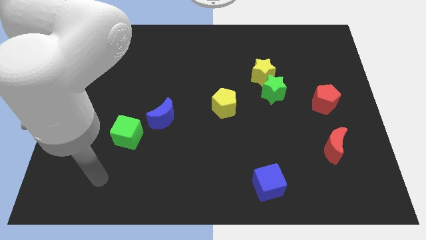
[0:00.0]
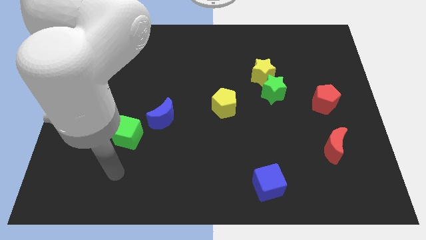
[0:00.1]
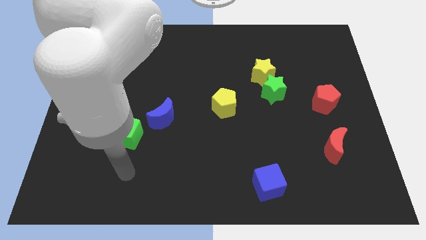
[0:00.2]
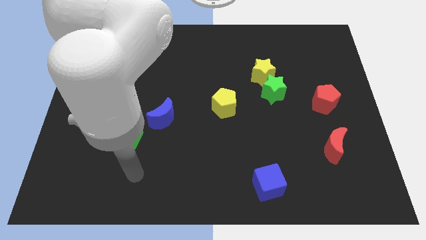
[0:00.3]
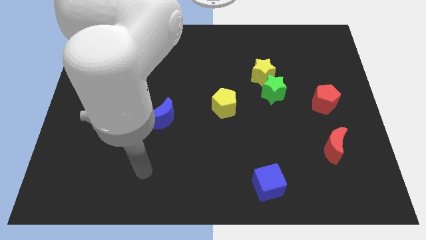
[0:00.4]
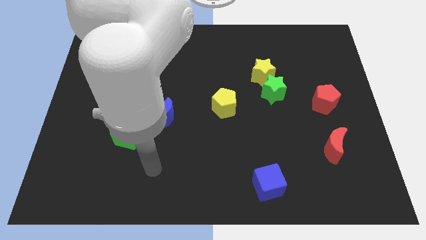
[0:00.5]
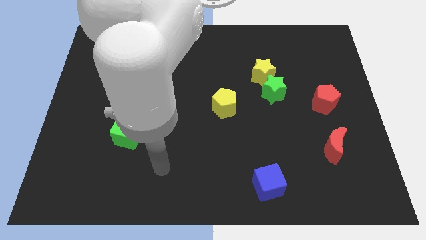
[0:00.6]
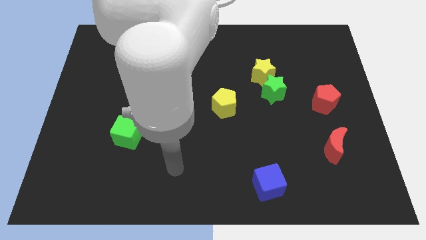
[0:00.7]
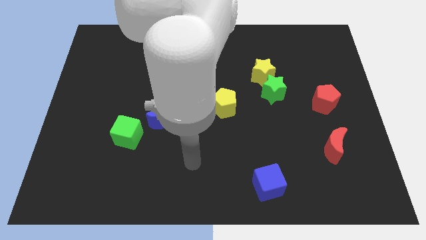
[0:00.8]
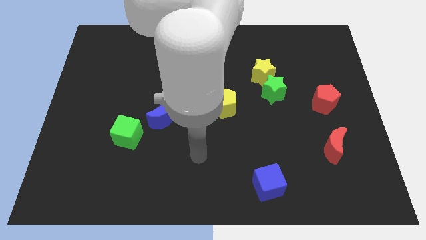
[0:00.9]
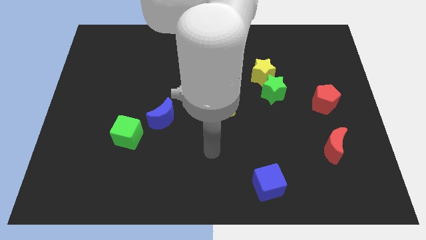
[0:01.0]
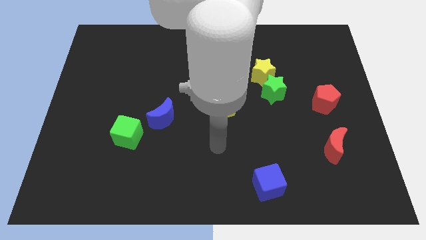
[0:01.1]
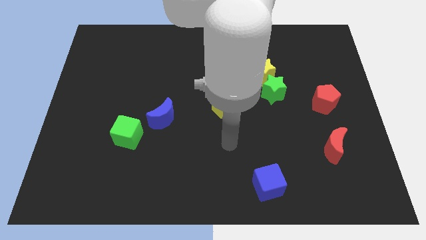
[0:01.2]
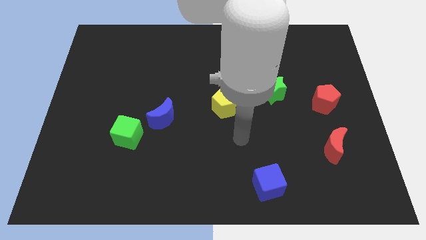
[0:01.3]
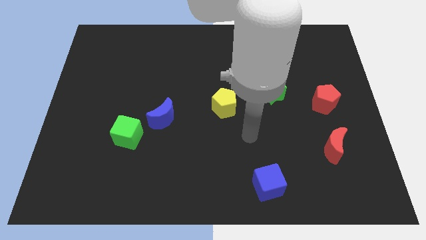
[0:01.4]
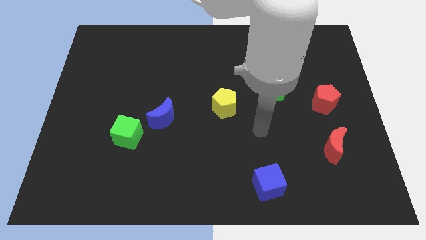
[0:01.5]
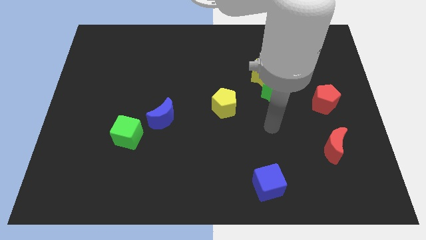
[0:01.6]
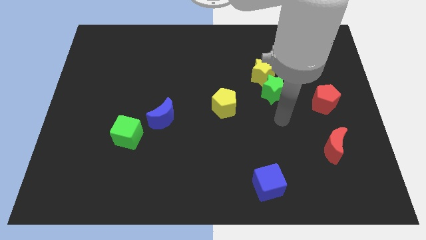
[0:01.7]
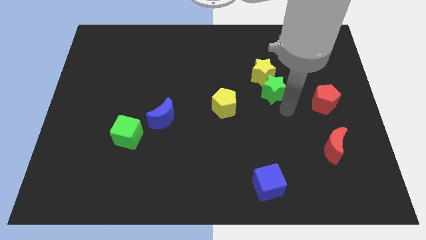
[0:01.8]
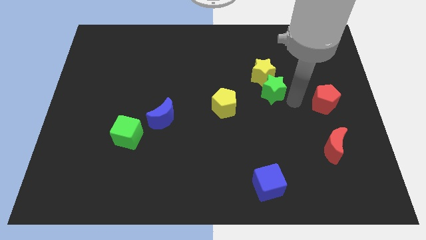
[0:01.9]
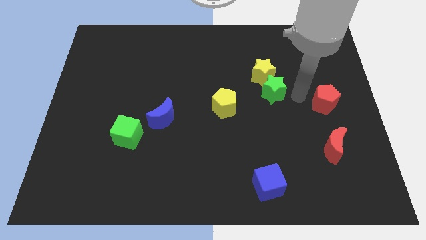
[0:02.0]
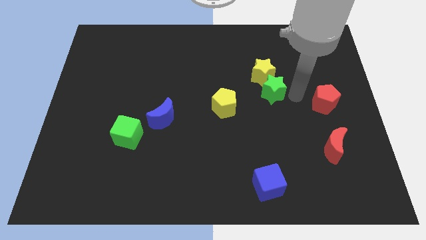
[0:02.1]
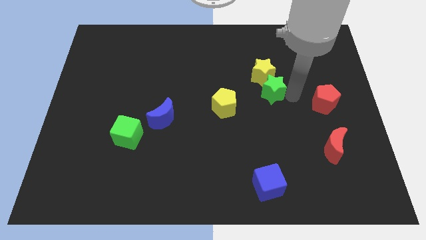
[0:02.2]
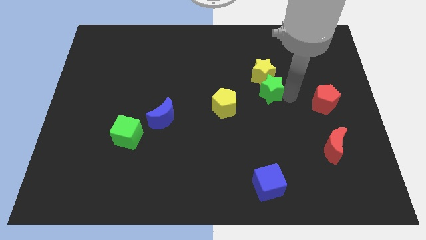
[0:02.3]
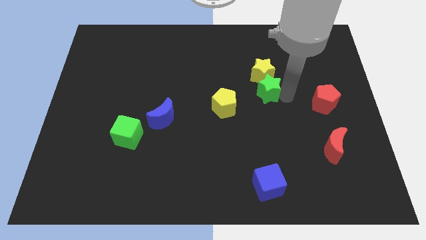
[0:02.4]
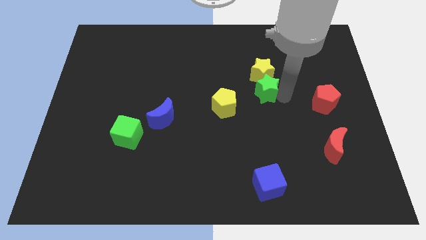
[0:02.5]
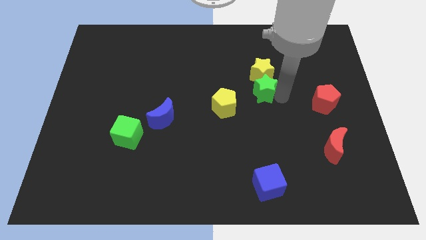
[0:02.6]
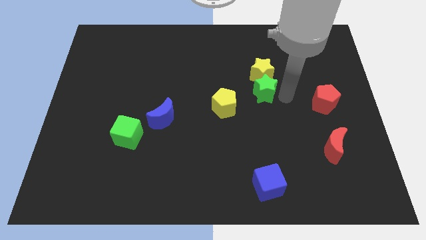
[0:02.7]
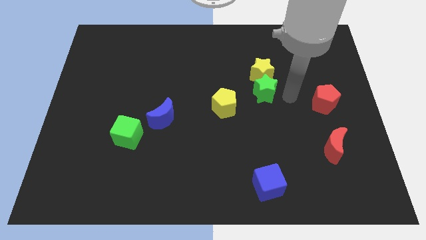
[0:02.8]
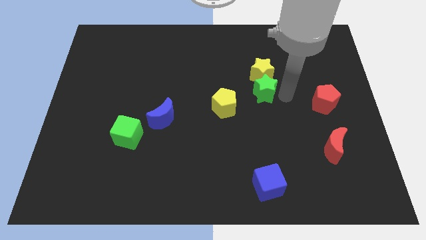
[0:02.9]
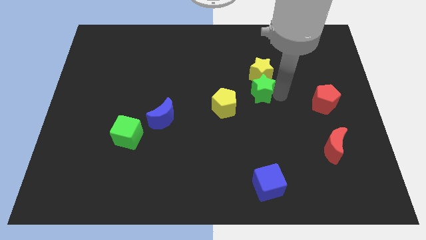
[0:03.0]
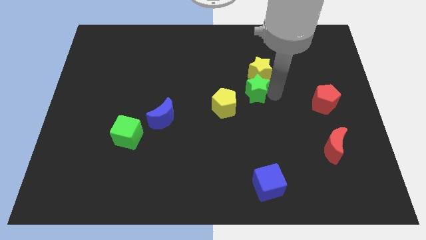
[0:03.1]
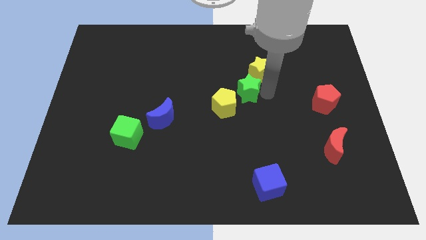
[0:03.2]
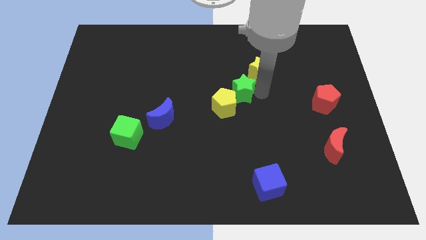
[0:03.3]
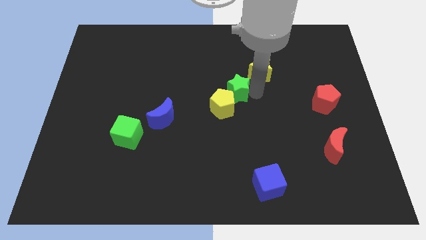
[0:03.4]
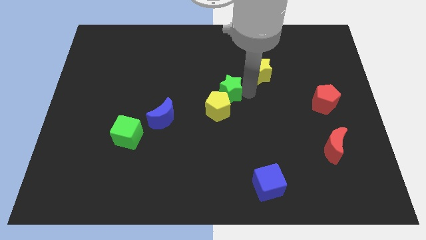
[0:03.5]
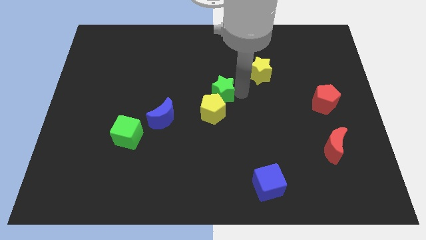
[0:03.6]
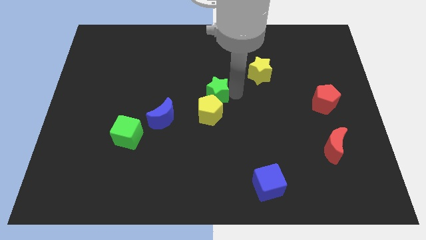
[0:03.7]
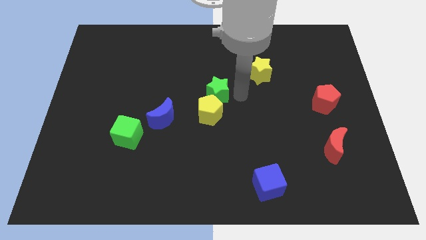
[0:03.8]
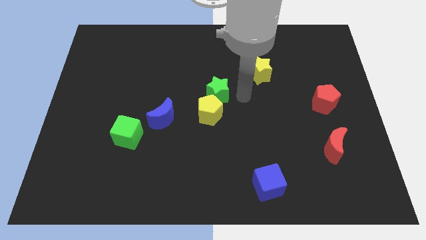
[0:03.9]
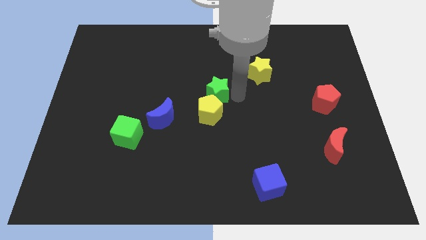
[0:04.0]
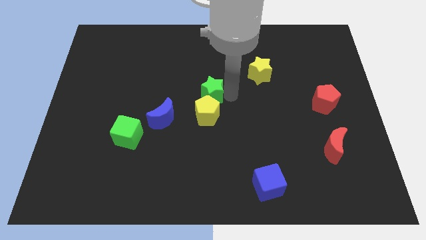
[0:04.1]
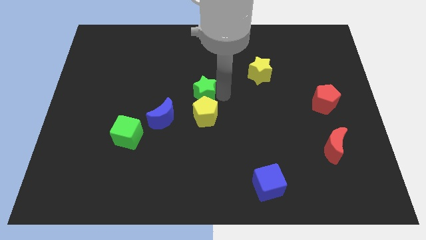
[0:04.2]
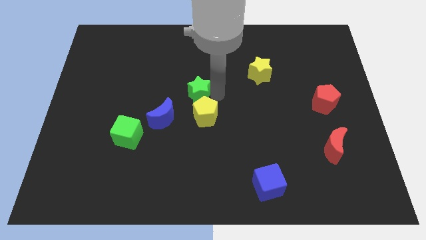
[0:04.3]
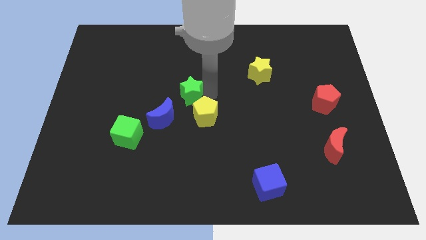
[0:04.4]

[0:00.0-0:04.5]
move the green star left

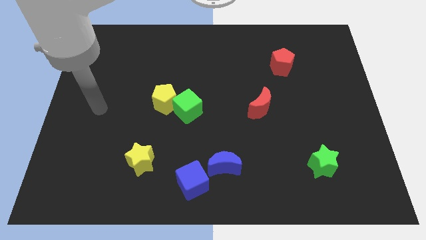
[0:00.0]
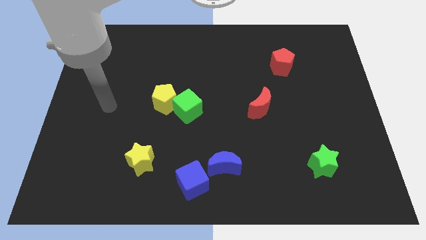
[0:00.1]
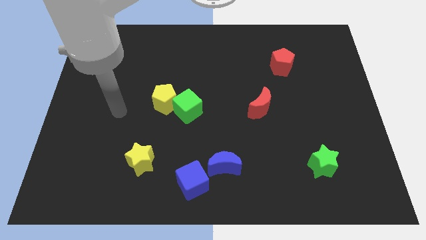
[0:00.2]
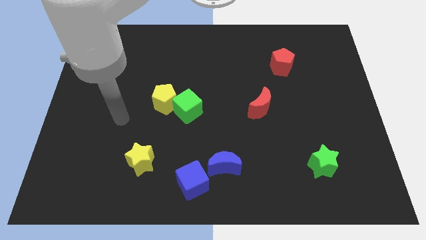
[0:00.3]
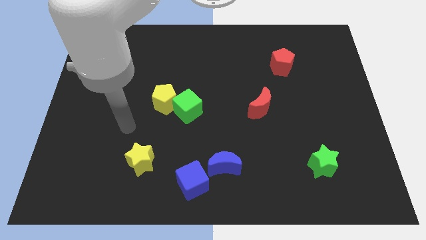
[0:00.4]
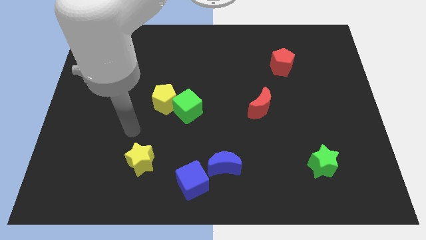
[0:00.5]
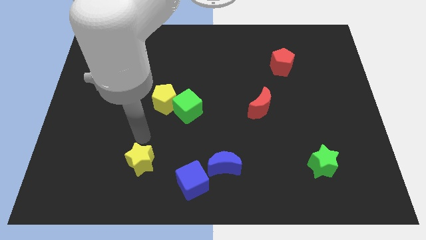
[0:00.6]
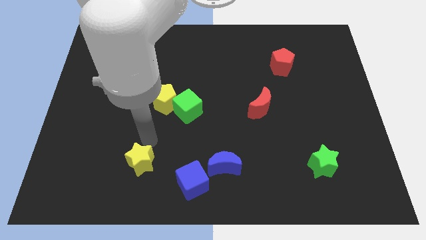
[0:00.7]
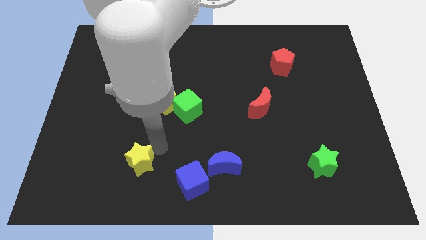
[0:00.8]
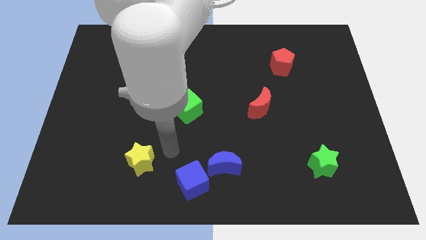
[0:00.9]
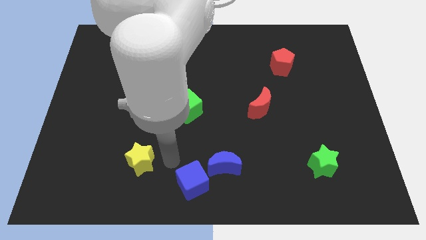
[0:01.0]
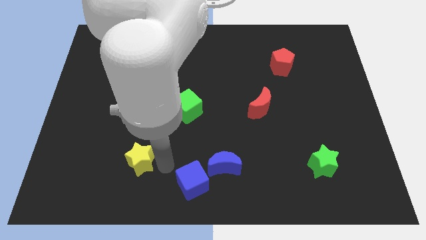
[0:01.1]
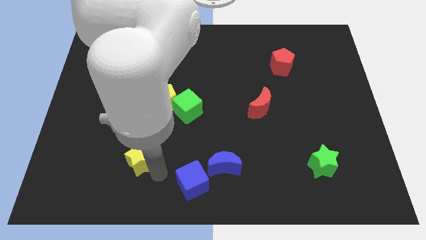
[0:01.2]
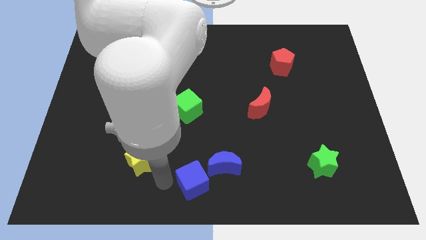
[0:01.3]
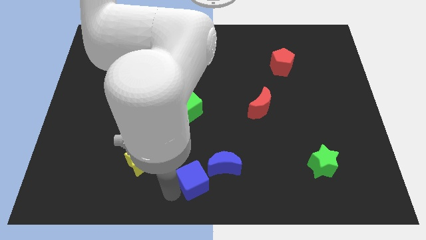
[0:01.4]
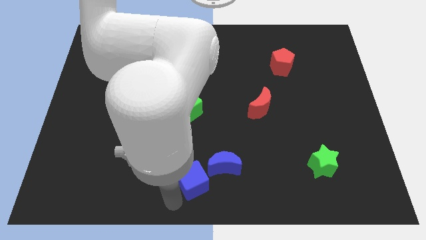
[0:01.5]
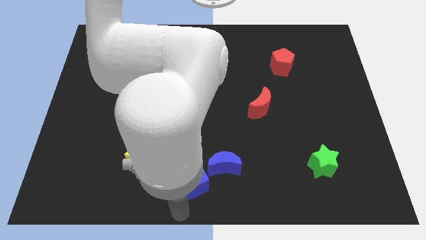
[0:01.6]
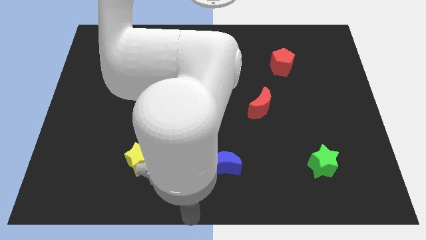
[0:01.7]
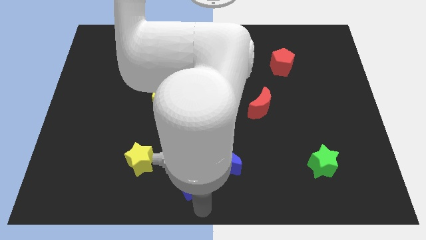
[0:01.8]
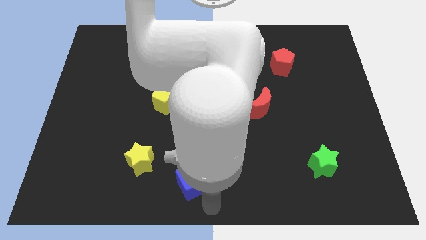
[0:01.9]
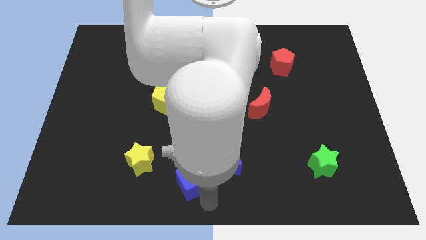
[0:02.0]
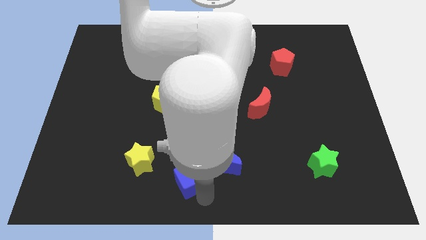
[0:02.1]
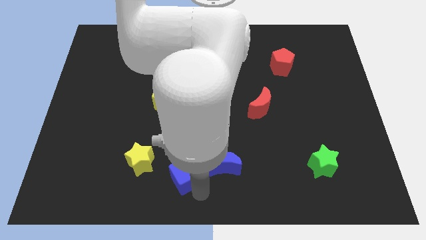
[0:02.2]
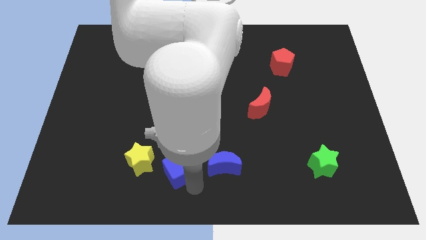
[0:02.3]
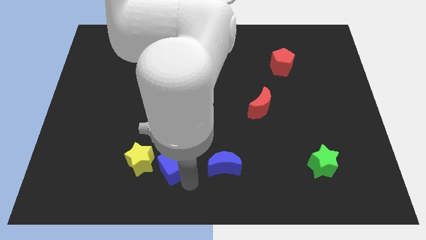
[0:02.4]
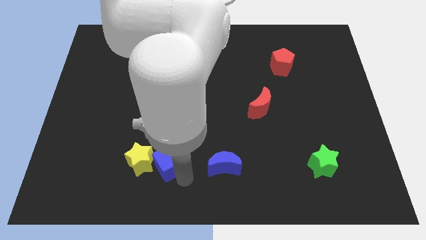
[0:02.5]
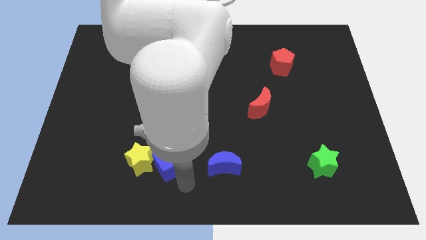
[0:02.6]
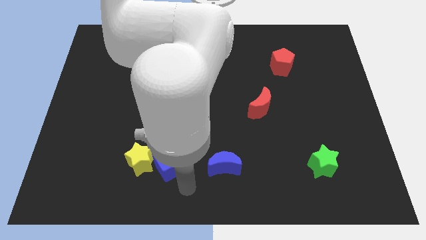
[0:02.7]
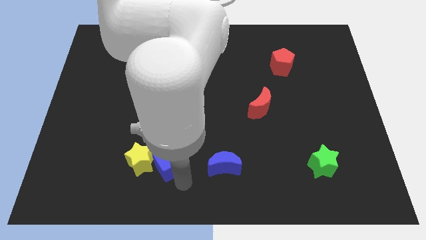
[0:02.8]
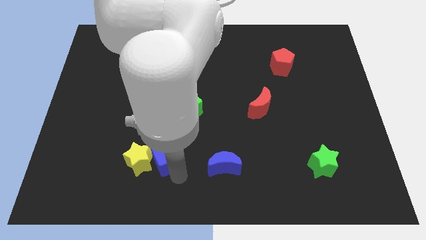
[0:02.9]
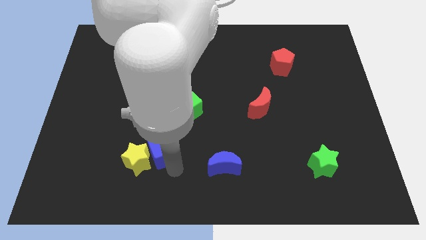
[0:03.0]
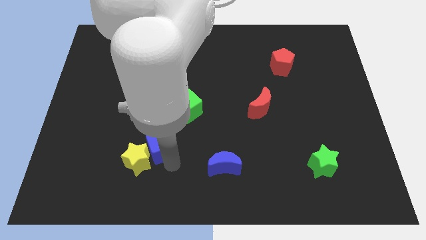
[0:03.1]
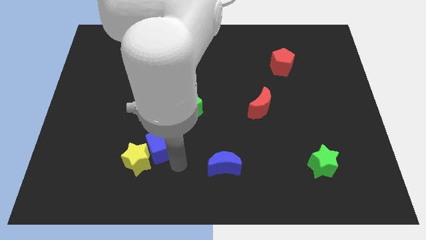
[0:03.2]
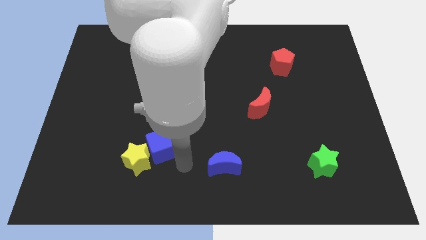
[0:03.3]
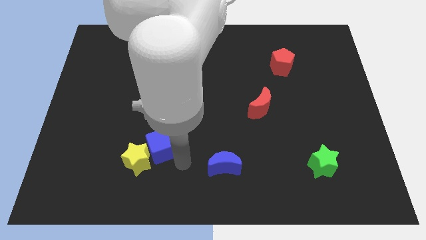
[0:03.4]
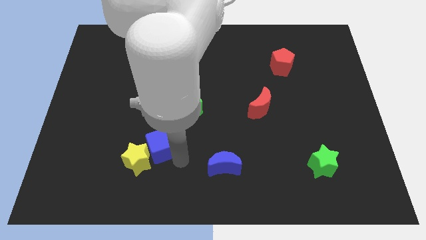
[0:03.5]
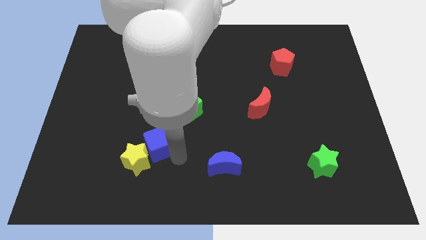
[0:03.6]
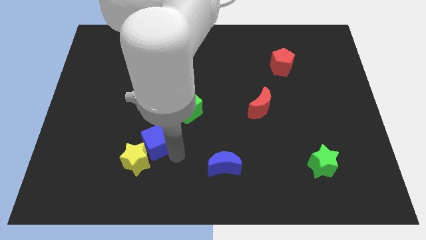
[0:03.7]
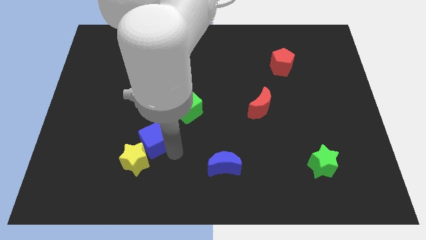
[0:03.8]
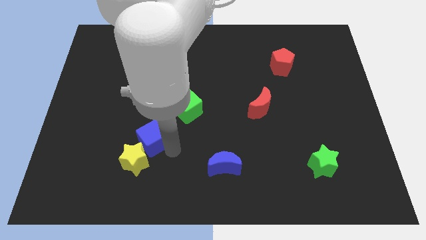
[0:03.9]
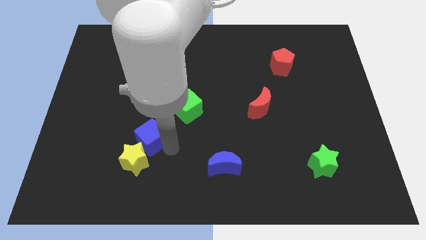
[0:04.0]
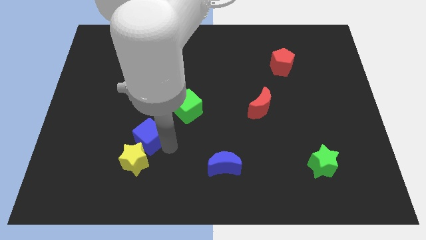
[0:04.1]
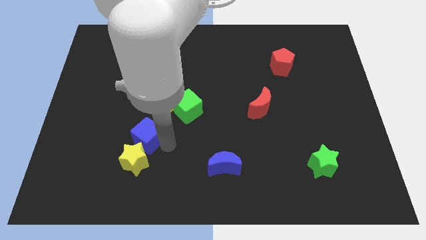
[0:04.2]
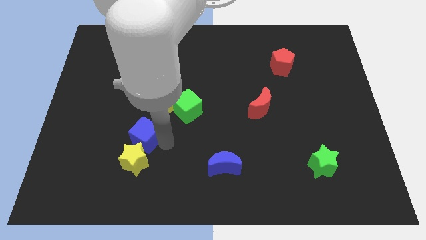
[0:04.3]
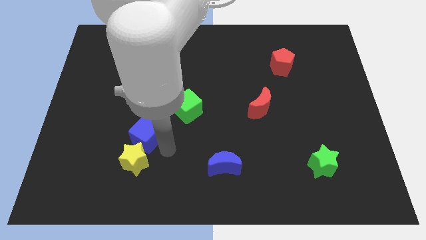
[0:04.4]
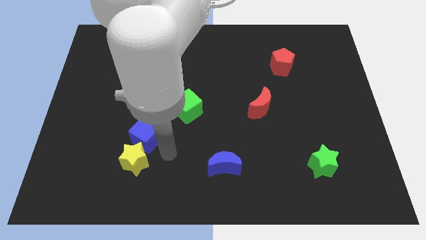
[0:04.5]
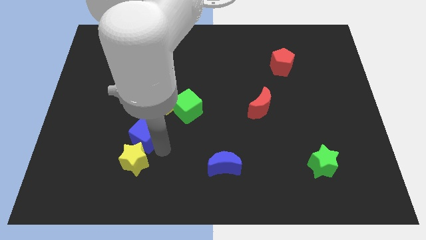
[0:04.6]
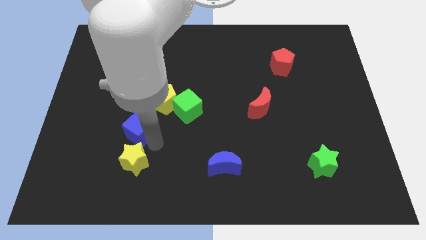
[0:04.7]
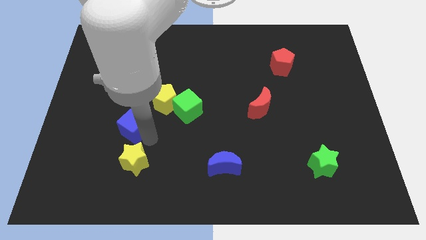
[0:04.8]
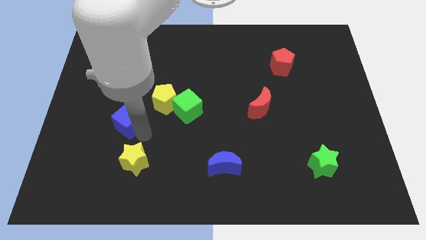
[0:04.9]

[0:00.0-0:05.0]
move the blue cube upwards and left diagonally
